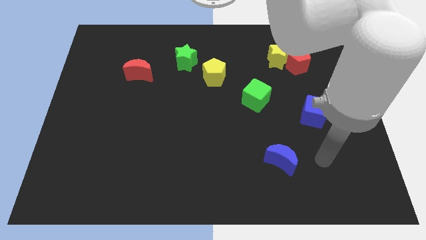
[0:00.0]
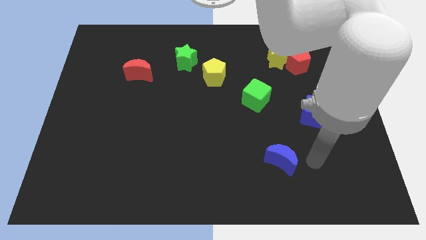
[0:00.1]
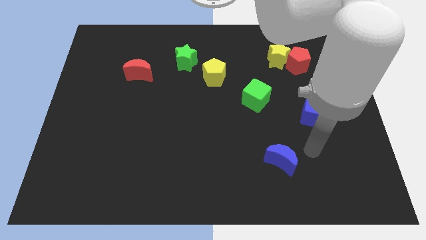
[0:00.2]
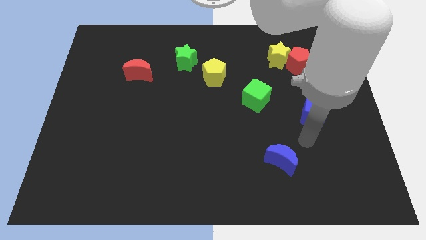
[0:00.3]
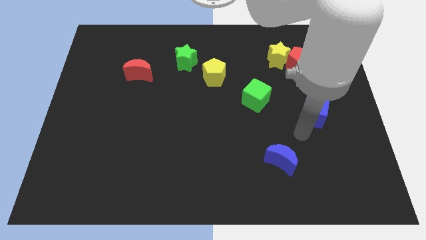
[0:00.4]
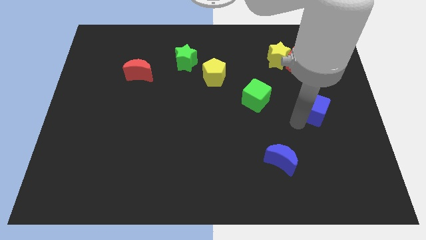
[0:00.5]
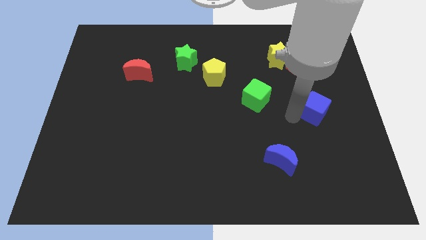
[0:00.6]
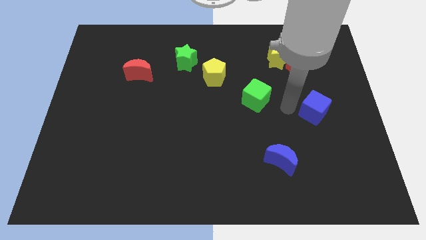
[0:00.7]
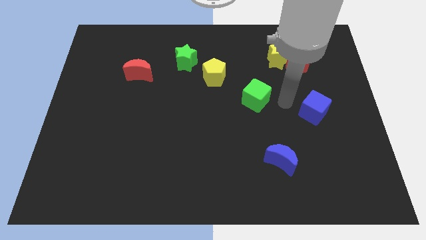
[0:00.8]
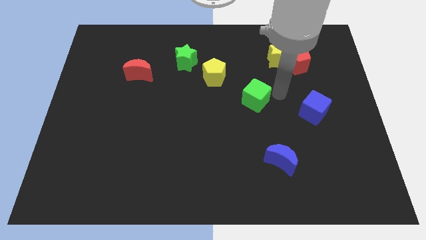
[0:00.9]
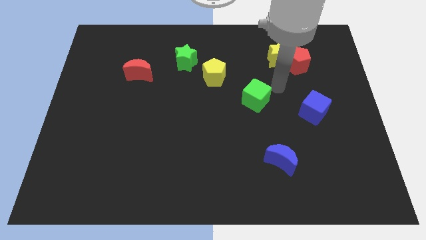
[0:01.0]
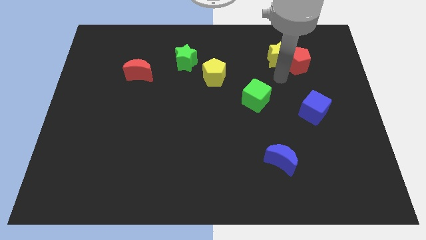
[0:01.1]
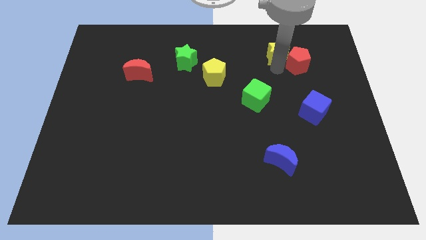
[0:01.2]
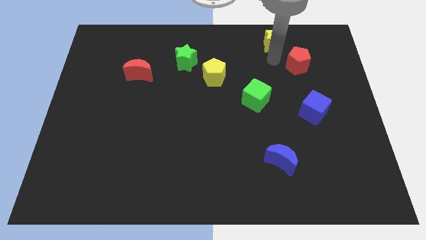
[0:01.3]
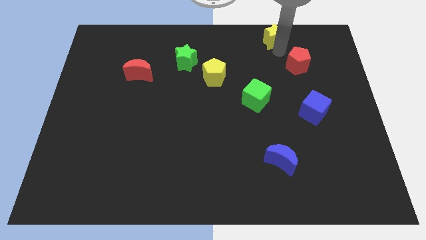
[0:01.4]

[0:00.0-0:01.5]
separate the red pentagon from the yellow star

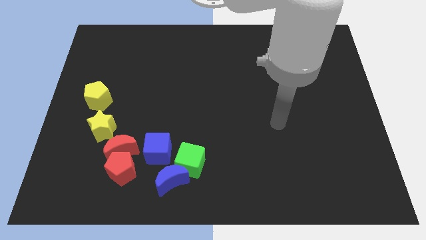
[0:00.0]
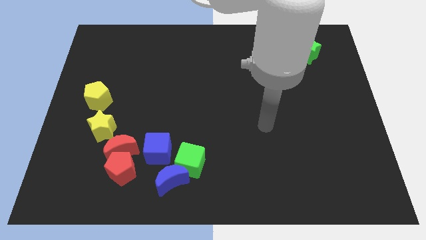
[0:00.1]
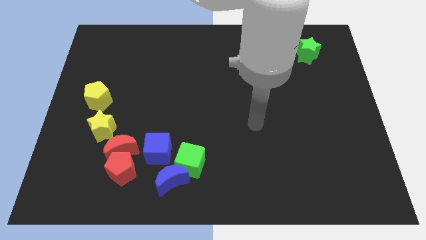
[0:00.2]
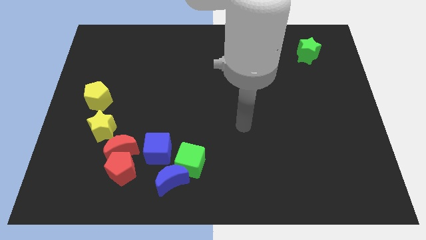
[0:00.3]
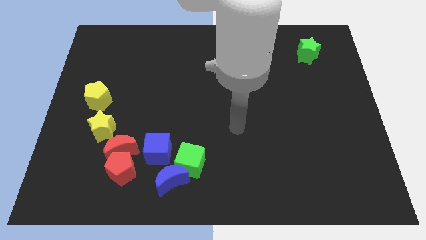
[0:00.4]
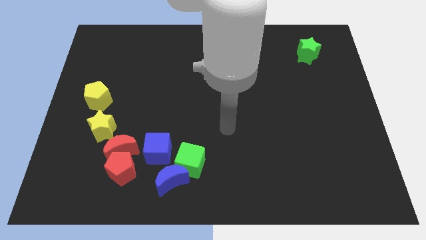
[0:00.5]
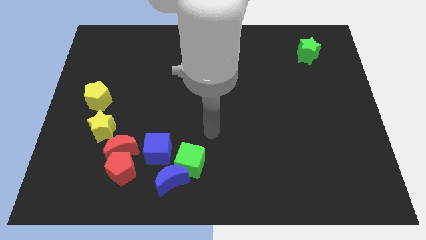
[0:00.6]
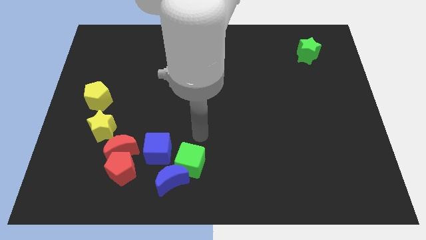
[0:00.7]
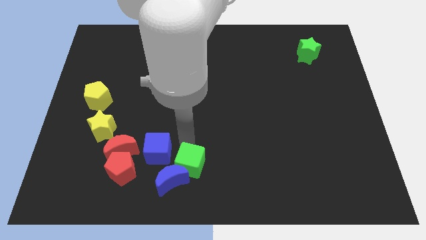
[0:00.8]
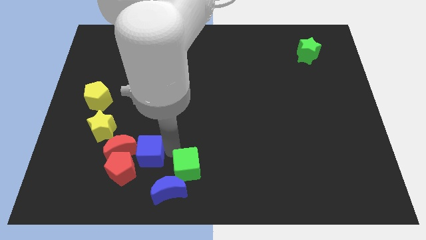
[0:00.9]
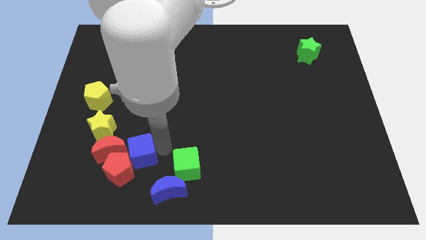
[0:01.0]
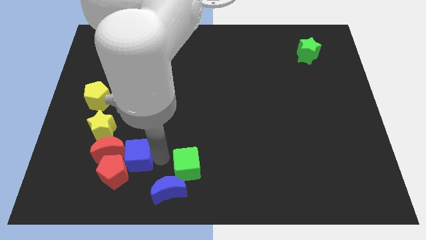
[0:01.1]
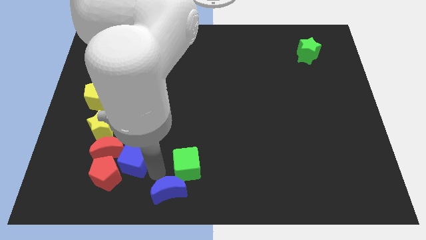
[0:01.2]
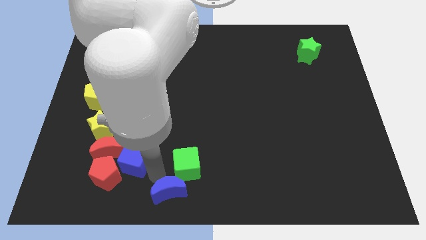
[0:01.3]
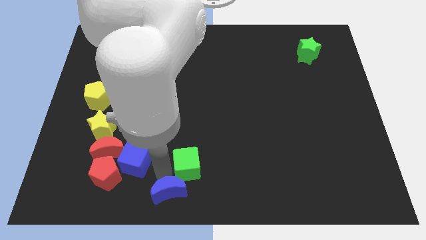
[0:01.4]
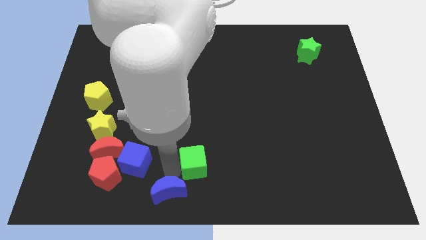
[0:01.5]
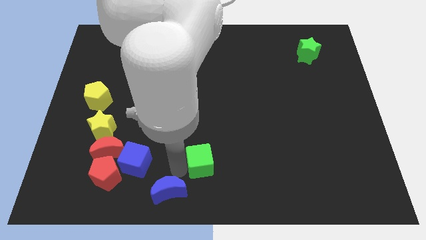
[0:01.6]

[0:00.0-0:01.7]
separate the green cube from the blue moon and blue cube

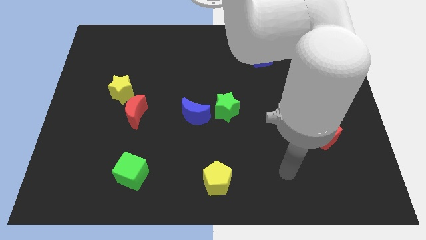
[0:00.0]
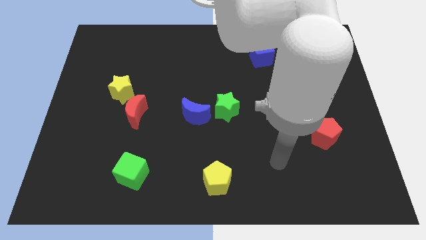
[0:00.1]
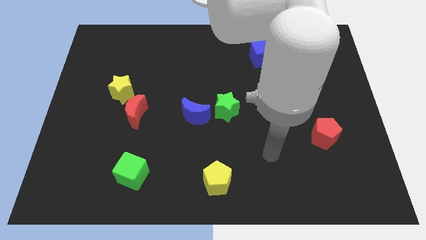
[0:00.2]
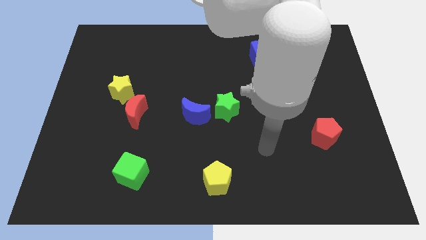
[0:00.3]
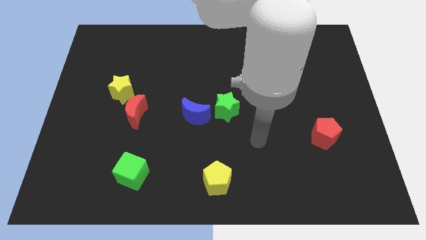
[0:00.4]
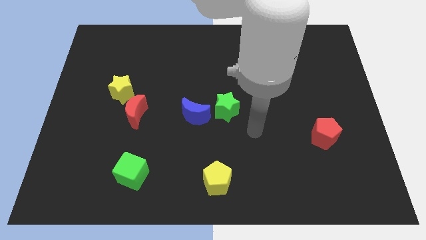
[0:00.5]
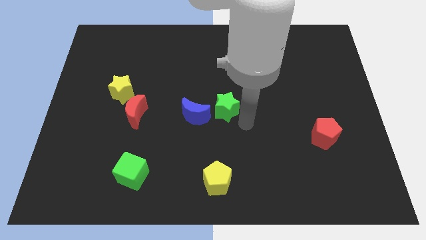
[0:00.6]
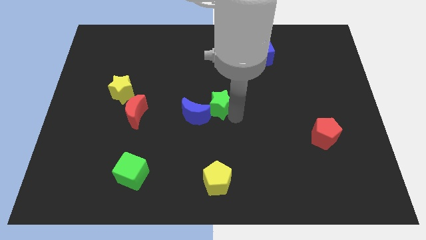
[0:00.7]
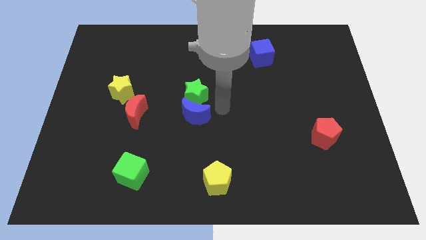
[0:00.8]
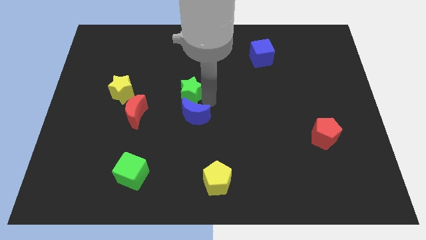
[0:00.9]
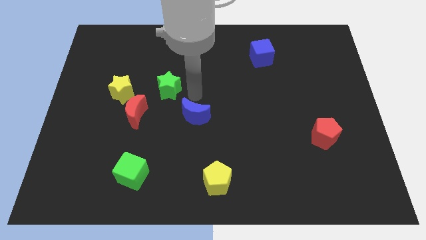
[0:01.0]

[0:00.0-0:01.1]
separate the blue moon from the green star

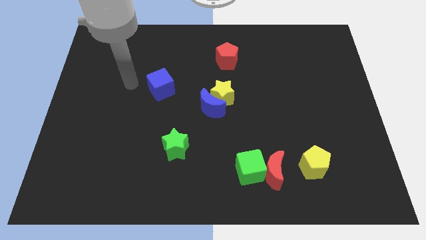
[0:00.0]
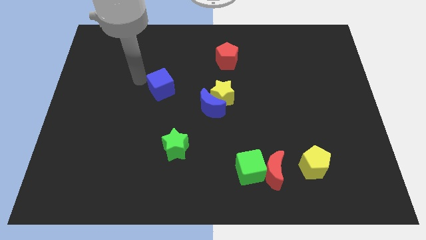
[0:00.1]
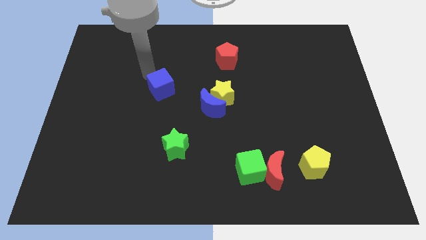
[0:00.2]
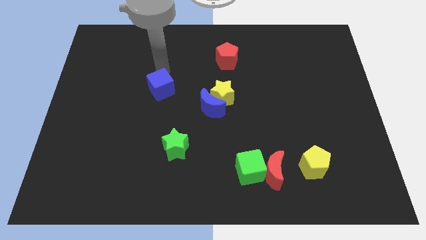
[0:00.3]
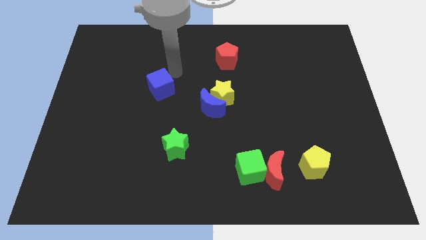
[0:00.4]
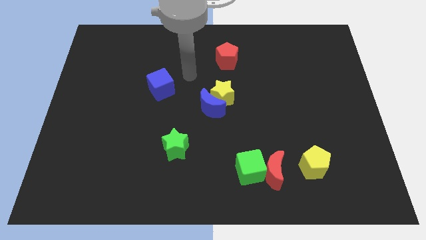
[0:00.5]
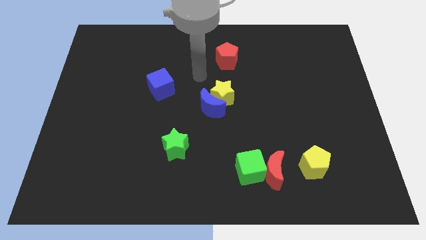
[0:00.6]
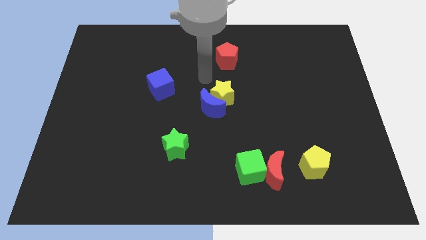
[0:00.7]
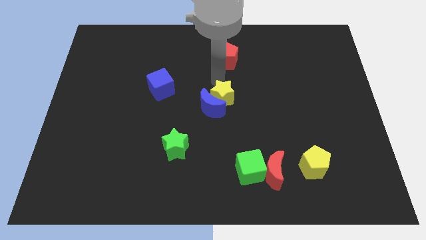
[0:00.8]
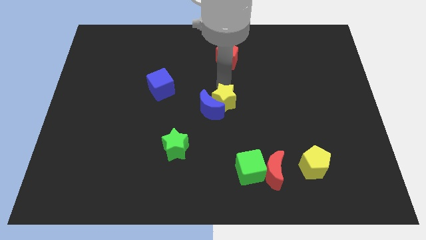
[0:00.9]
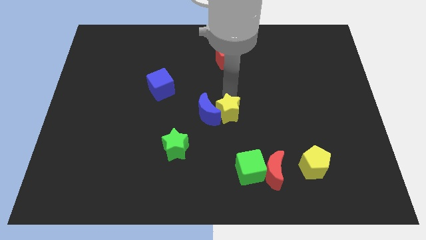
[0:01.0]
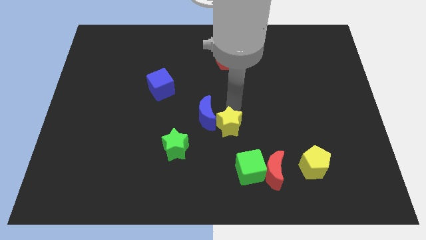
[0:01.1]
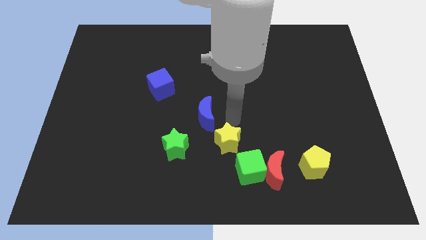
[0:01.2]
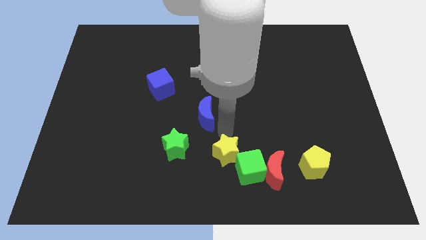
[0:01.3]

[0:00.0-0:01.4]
move the blue moon away from the yellow star

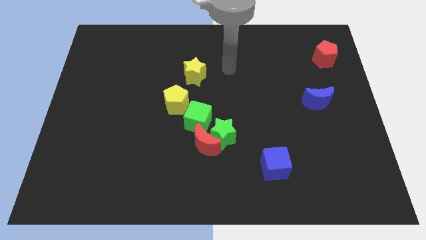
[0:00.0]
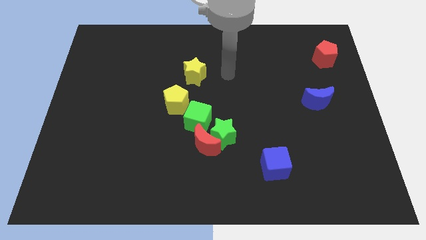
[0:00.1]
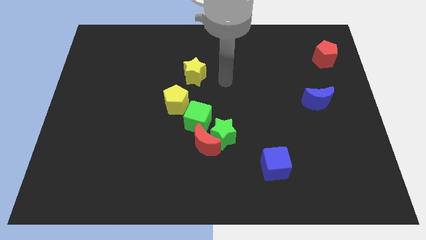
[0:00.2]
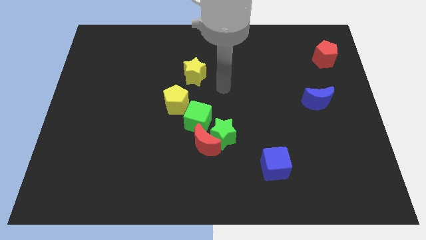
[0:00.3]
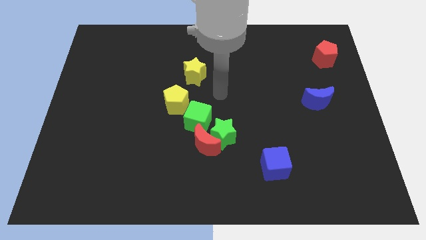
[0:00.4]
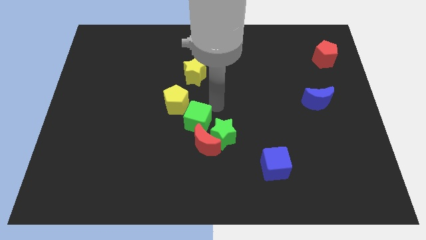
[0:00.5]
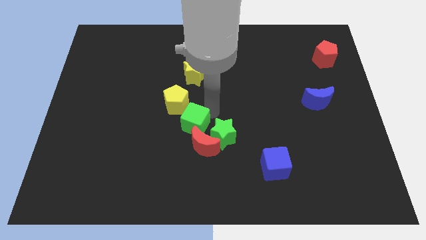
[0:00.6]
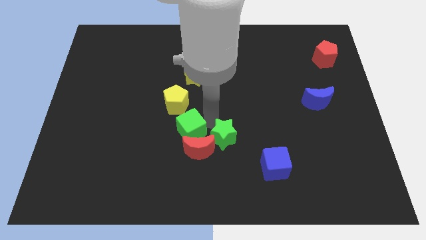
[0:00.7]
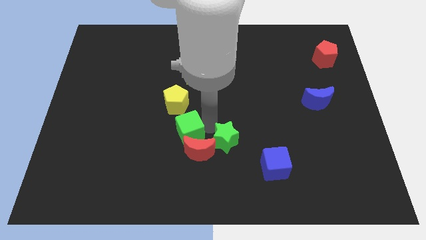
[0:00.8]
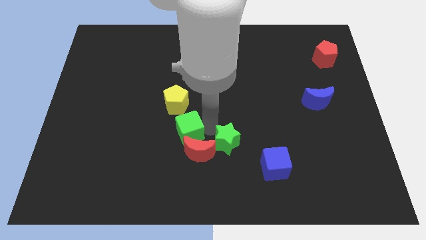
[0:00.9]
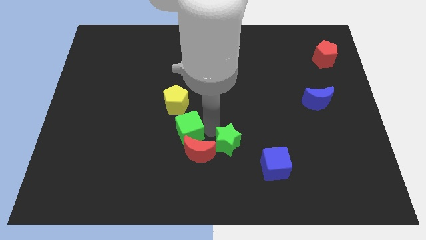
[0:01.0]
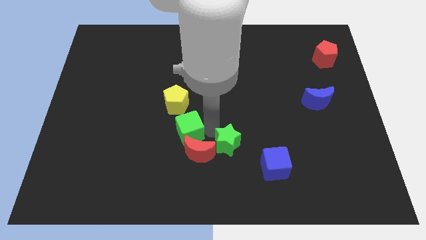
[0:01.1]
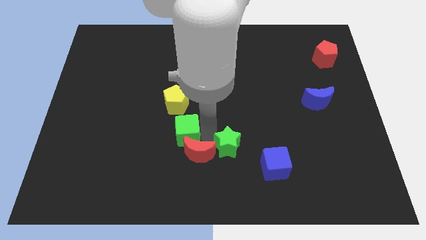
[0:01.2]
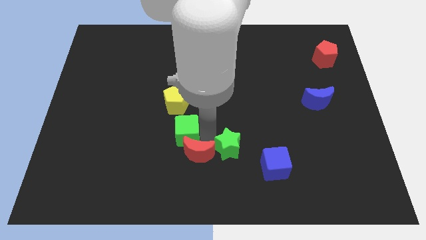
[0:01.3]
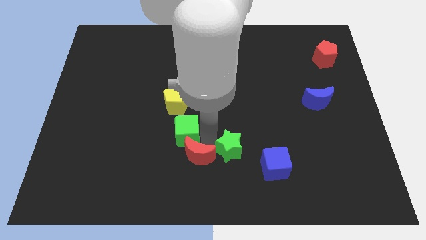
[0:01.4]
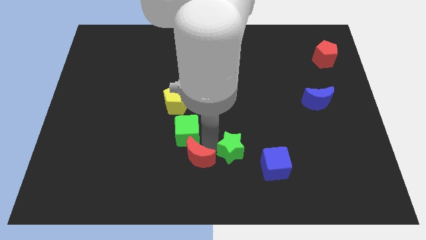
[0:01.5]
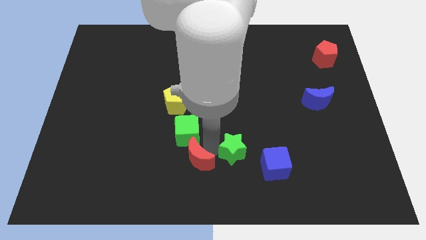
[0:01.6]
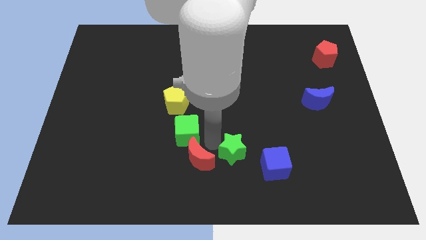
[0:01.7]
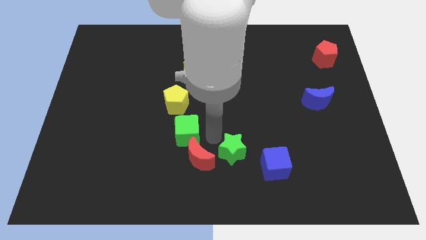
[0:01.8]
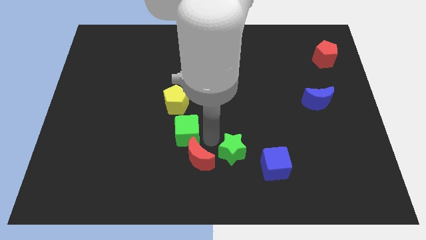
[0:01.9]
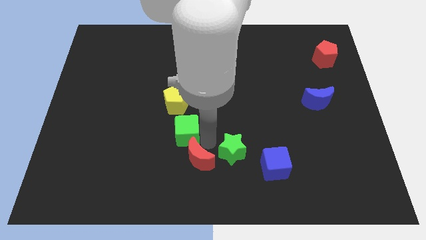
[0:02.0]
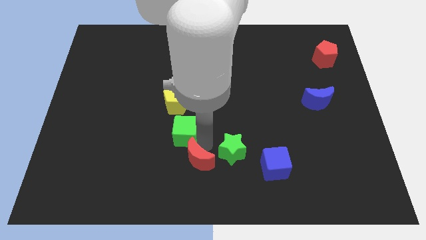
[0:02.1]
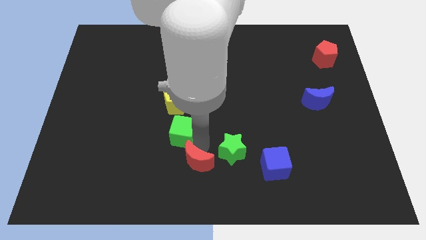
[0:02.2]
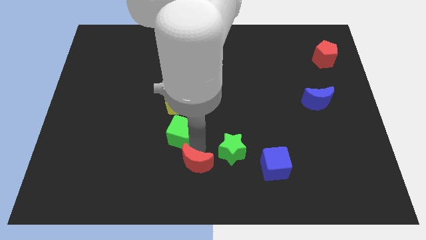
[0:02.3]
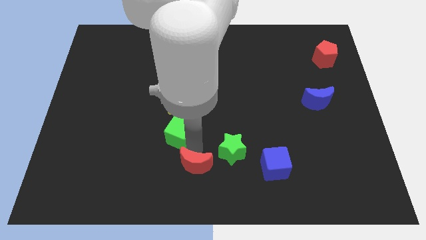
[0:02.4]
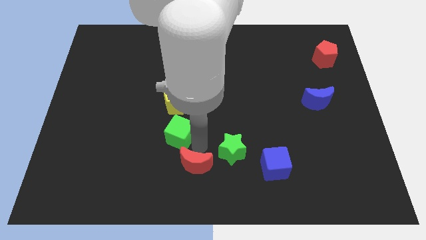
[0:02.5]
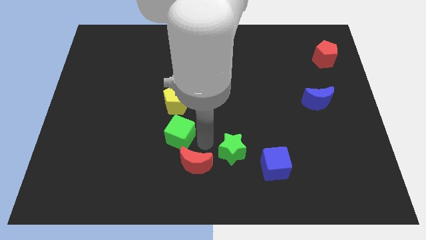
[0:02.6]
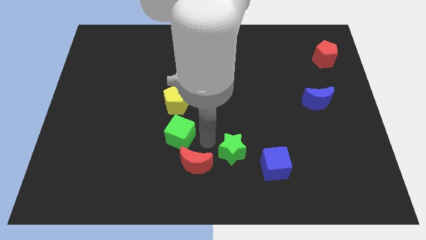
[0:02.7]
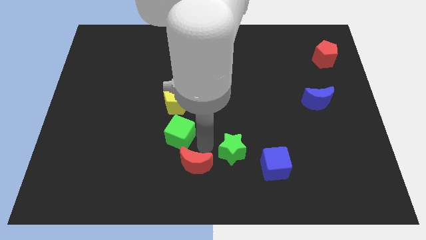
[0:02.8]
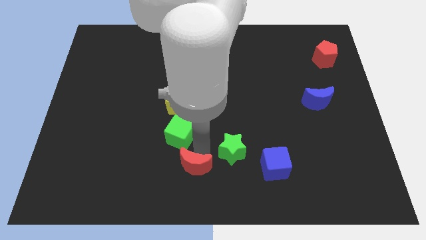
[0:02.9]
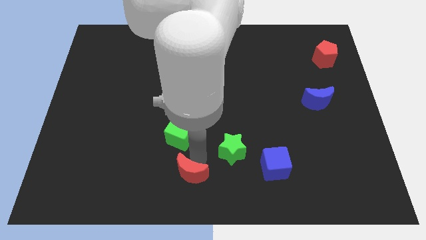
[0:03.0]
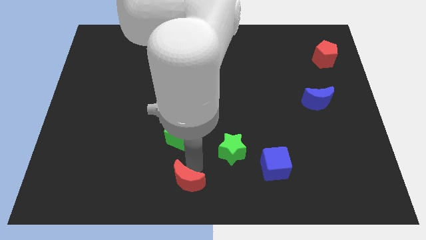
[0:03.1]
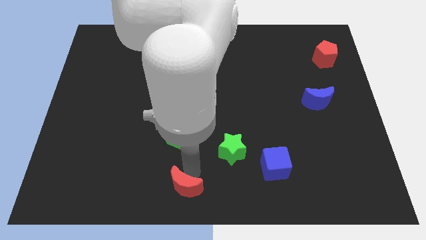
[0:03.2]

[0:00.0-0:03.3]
move the red moon away from the green star and green cube

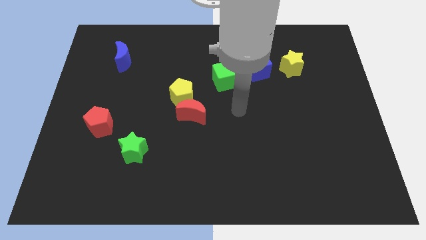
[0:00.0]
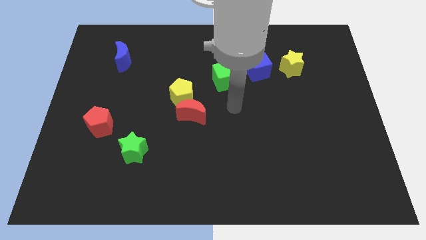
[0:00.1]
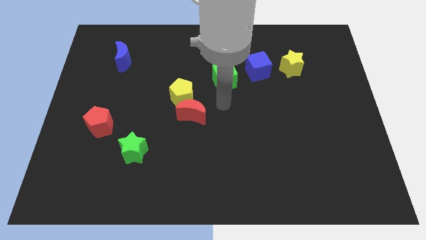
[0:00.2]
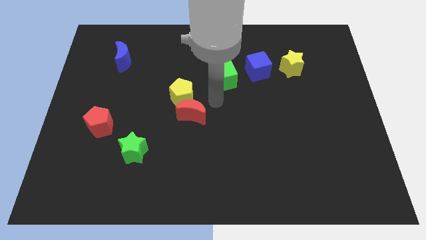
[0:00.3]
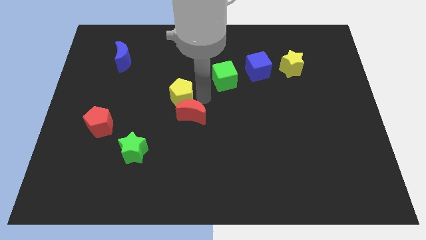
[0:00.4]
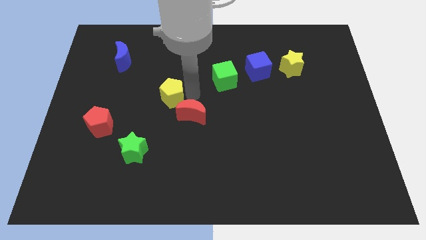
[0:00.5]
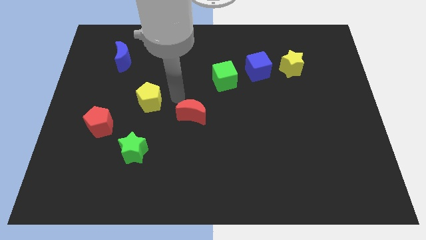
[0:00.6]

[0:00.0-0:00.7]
move the red moon away from the yellow pentagon
